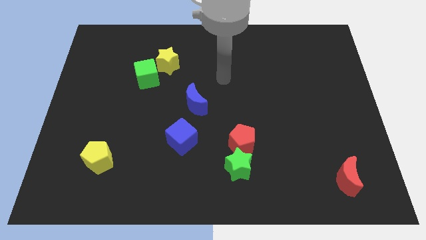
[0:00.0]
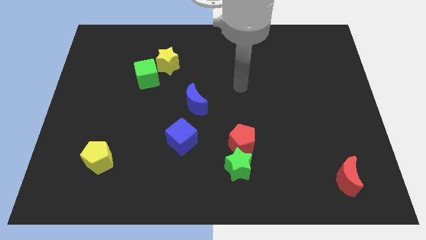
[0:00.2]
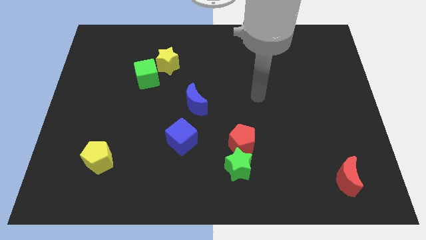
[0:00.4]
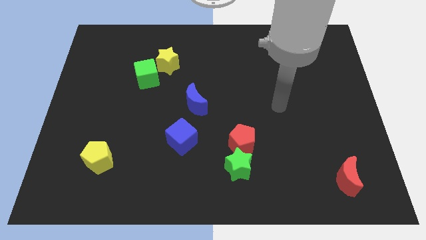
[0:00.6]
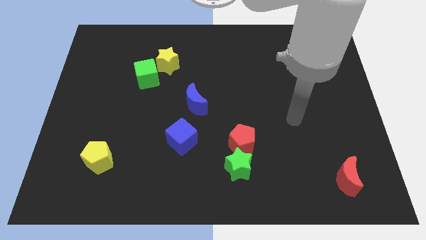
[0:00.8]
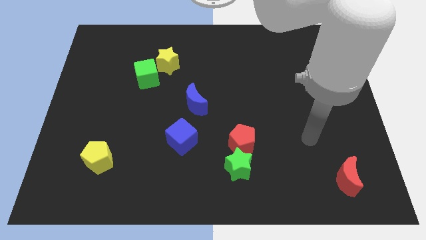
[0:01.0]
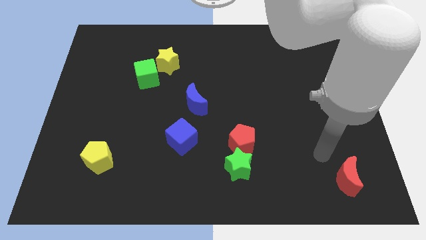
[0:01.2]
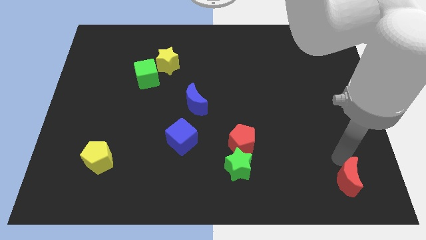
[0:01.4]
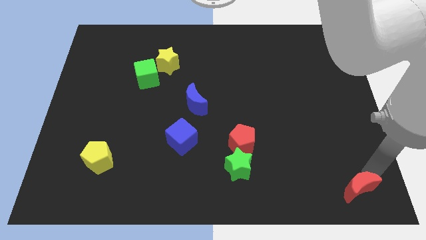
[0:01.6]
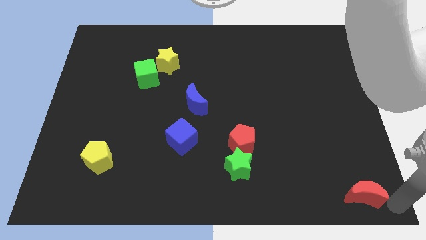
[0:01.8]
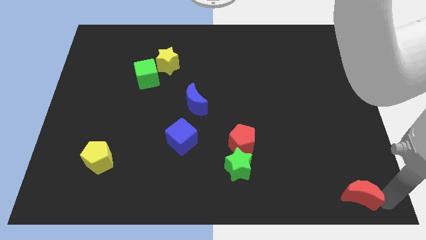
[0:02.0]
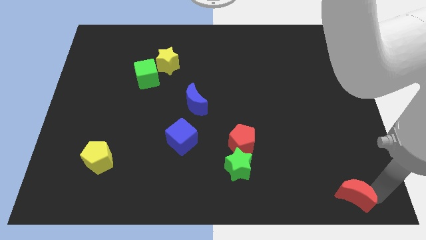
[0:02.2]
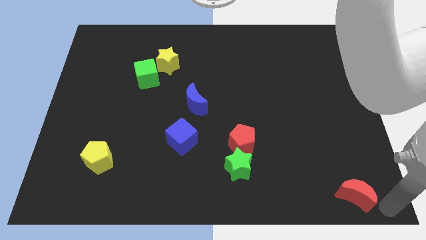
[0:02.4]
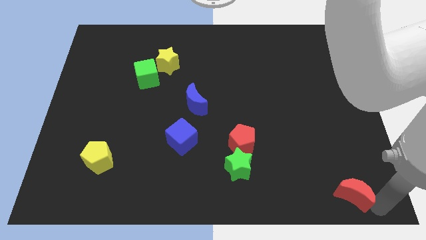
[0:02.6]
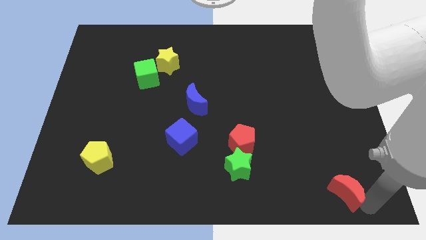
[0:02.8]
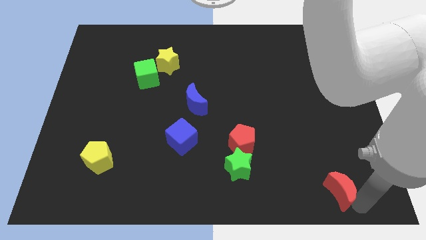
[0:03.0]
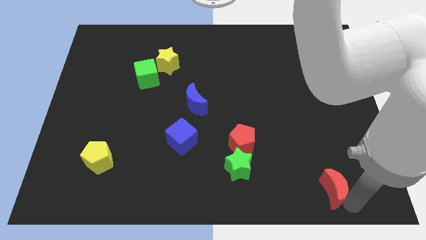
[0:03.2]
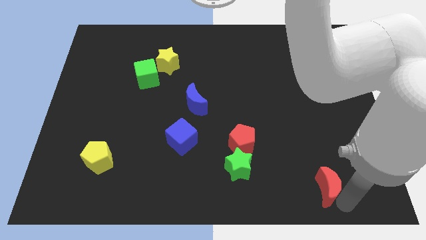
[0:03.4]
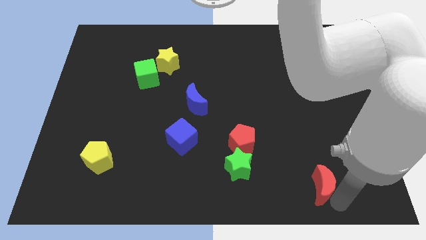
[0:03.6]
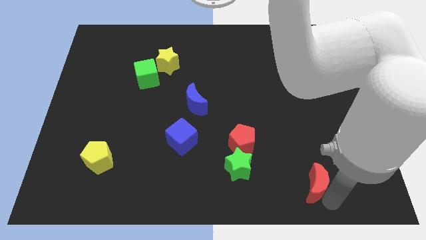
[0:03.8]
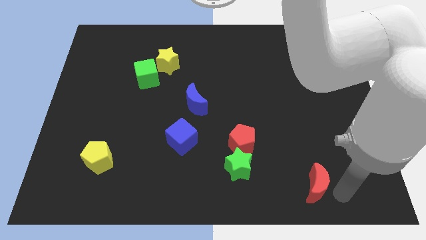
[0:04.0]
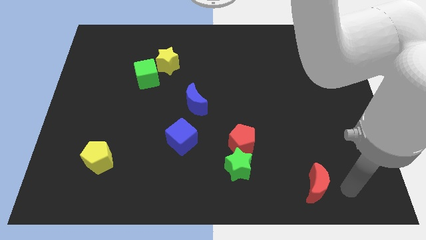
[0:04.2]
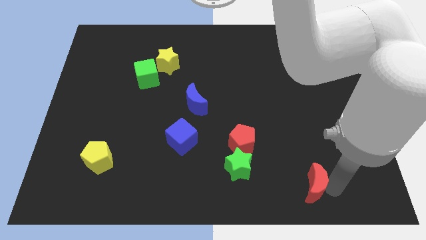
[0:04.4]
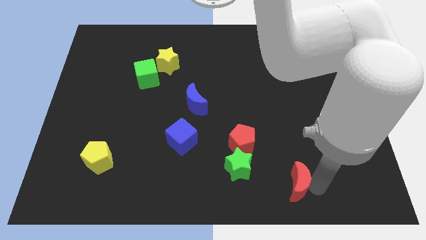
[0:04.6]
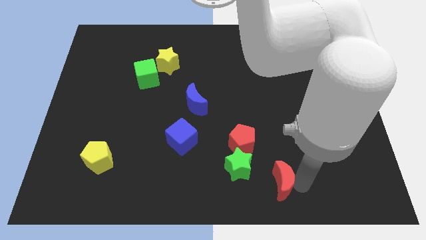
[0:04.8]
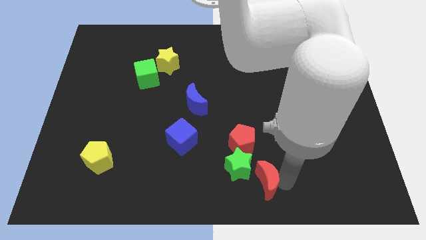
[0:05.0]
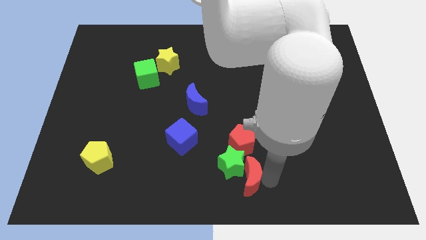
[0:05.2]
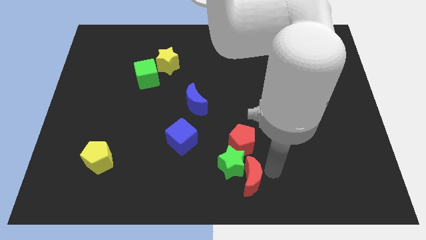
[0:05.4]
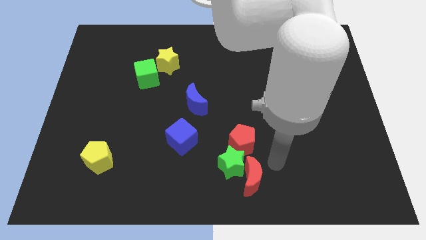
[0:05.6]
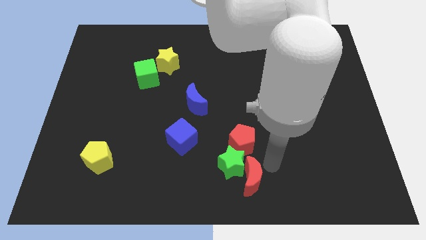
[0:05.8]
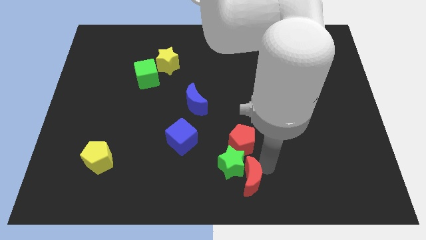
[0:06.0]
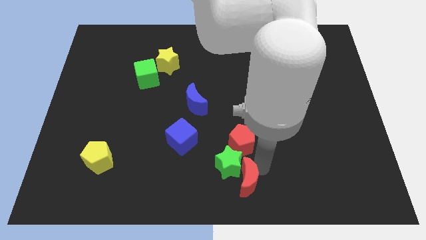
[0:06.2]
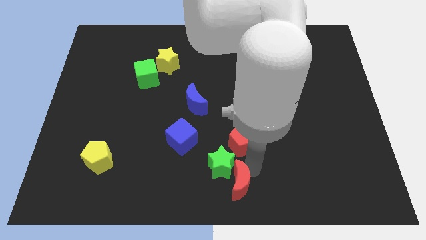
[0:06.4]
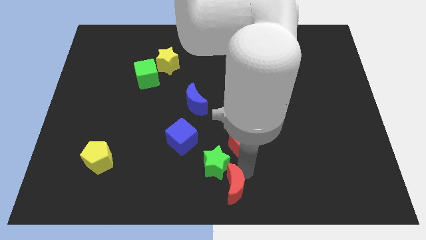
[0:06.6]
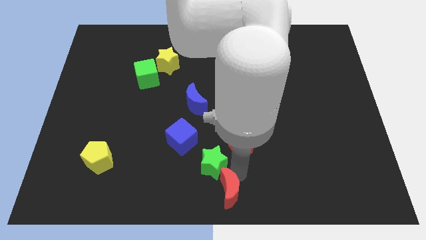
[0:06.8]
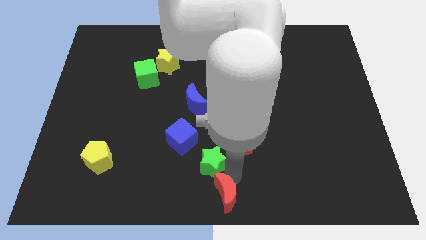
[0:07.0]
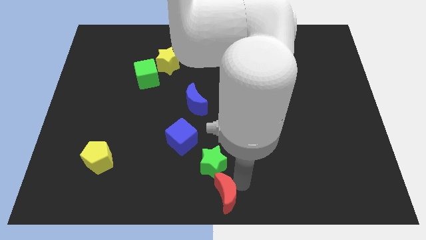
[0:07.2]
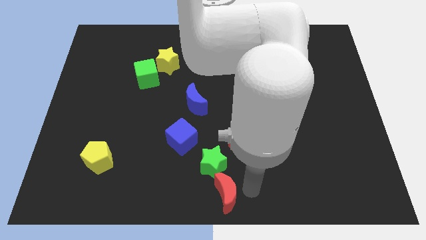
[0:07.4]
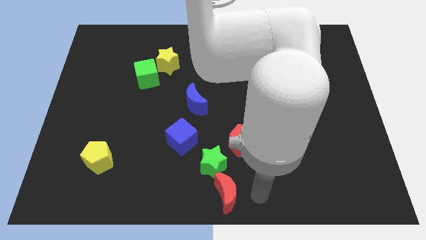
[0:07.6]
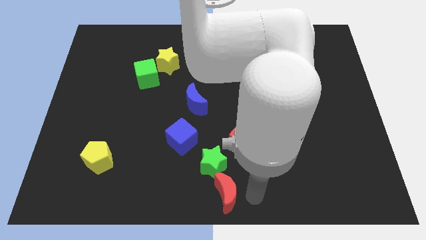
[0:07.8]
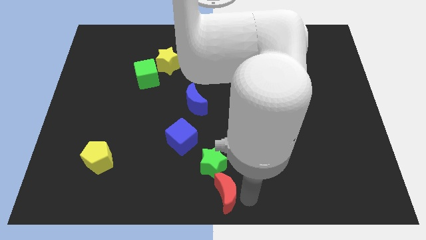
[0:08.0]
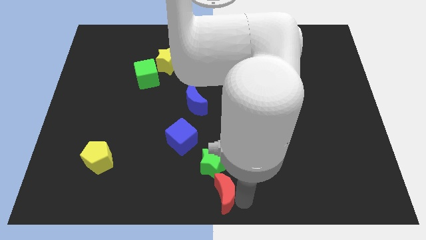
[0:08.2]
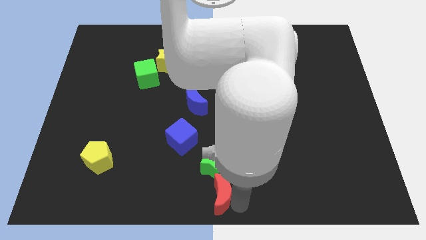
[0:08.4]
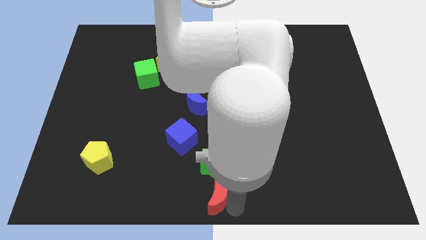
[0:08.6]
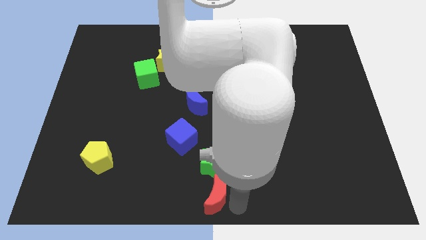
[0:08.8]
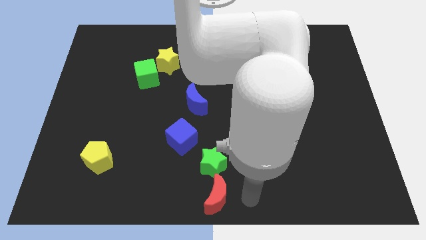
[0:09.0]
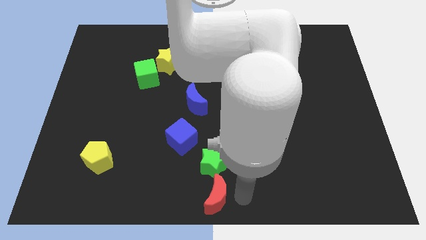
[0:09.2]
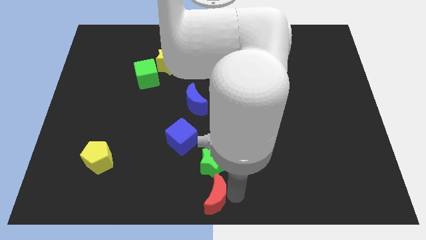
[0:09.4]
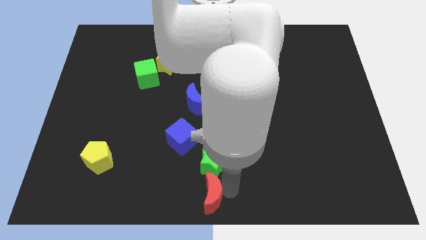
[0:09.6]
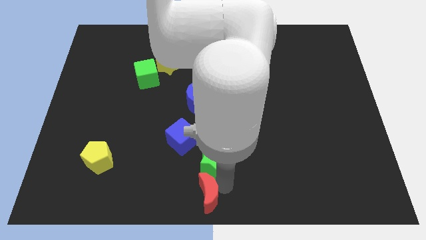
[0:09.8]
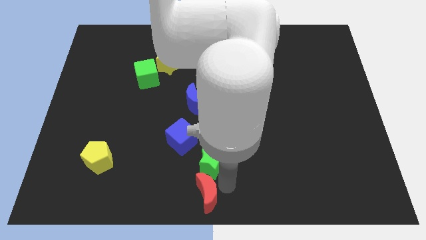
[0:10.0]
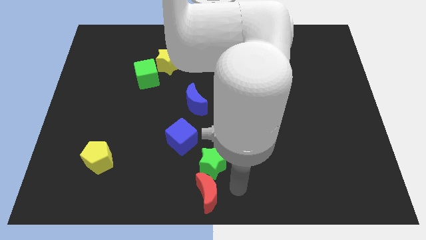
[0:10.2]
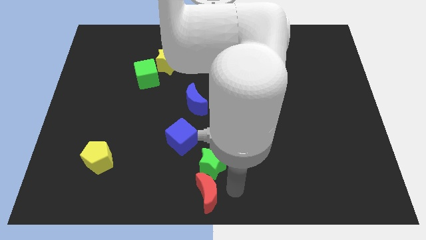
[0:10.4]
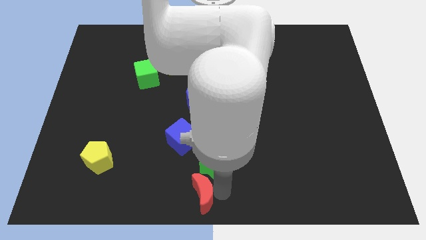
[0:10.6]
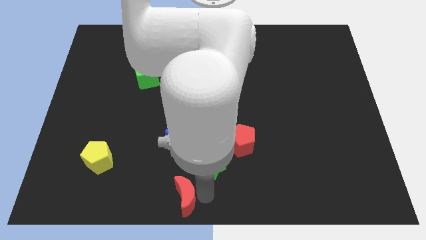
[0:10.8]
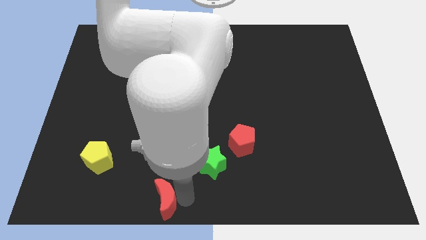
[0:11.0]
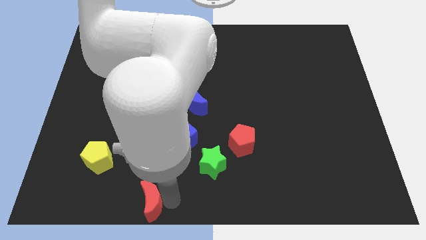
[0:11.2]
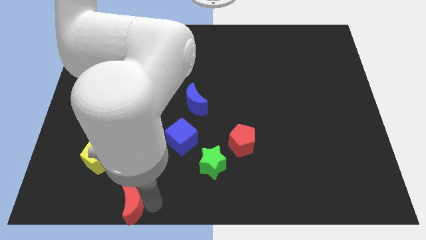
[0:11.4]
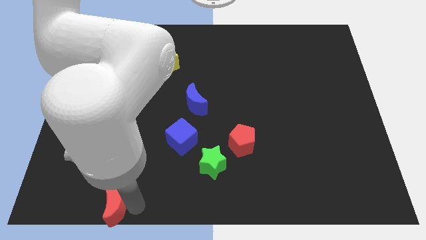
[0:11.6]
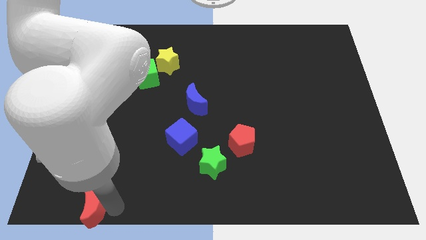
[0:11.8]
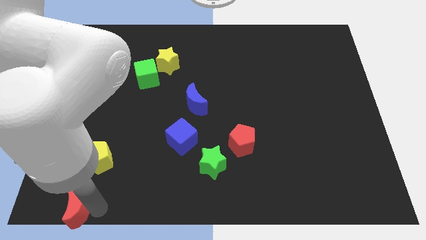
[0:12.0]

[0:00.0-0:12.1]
slide the red moon to the bottom left

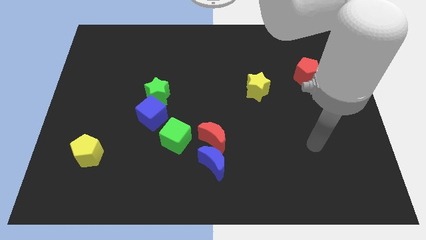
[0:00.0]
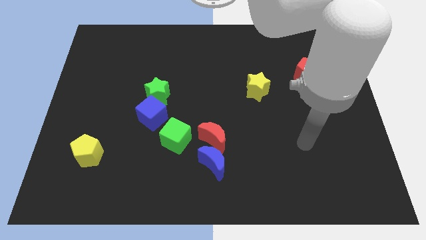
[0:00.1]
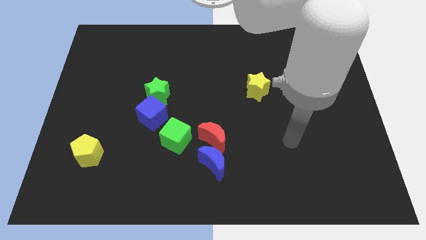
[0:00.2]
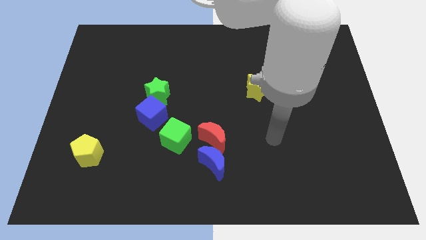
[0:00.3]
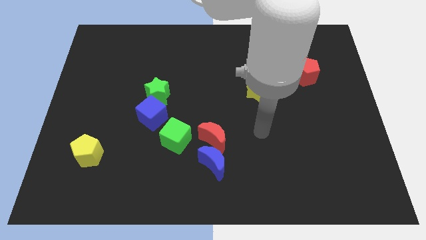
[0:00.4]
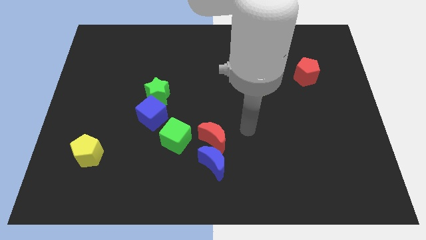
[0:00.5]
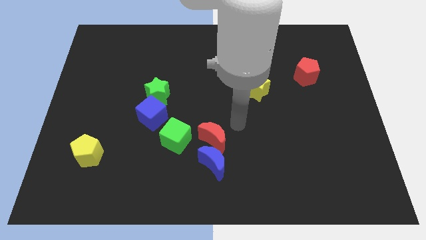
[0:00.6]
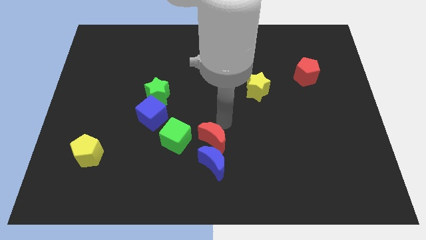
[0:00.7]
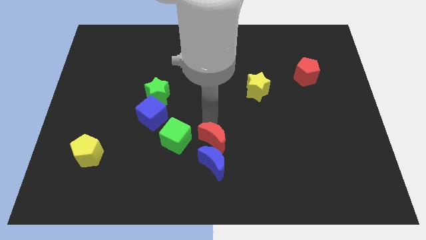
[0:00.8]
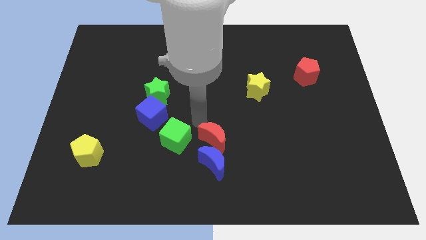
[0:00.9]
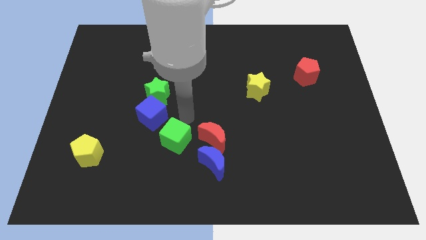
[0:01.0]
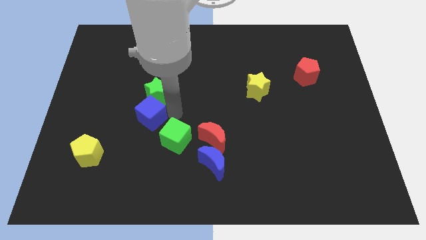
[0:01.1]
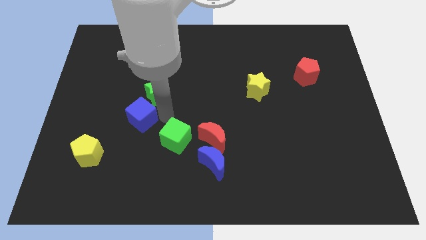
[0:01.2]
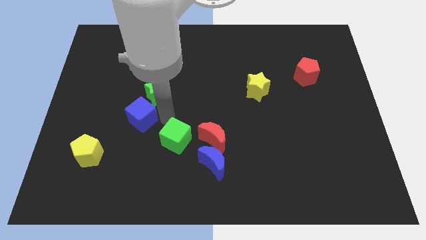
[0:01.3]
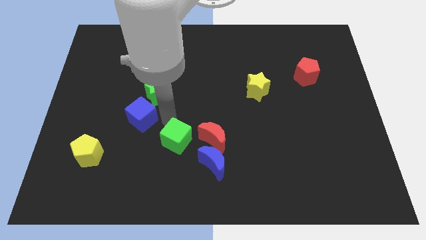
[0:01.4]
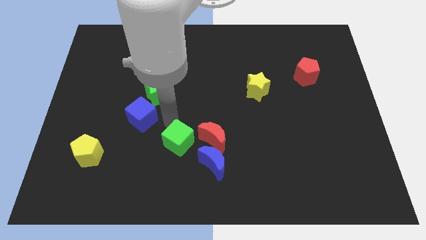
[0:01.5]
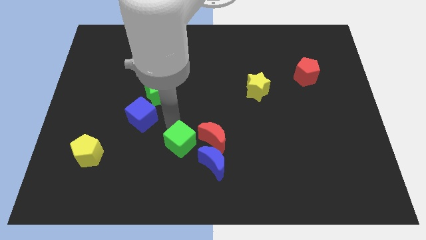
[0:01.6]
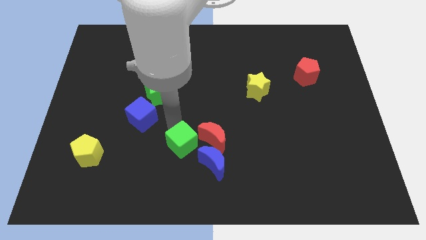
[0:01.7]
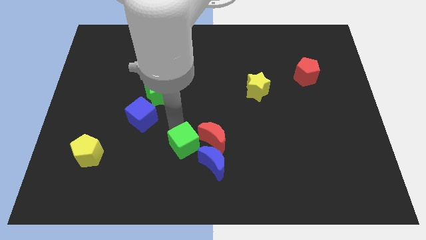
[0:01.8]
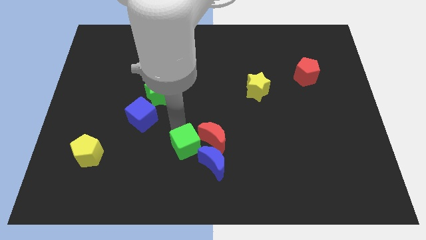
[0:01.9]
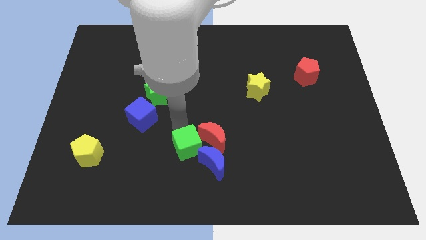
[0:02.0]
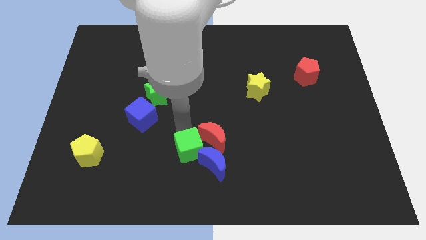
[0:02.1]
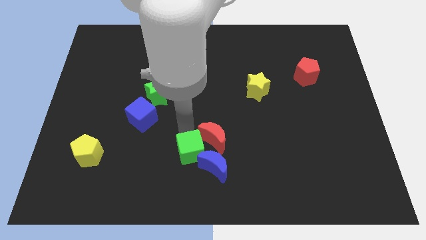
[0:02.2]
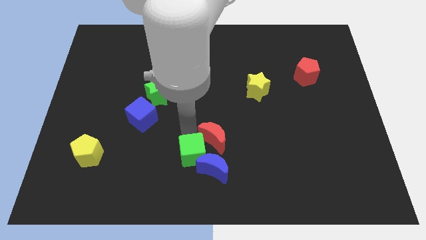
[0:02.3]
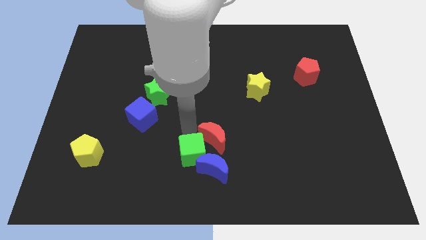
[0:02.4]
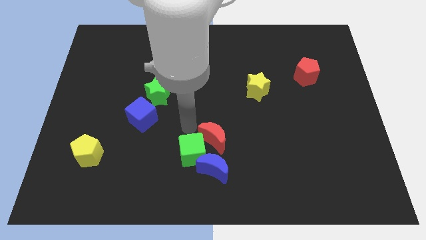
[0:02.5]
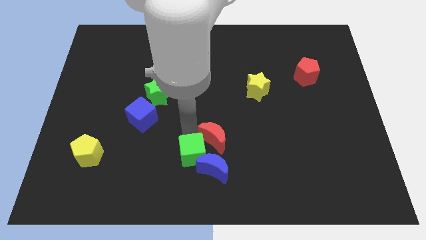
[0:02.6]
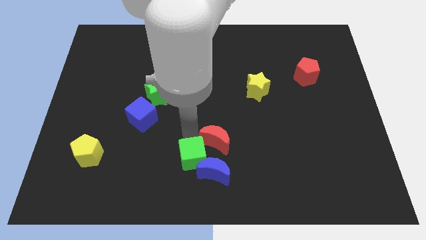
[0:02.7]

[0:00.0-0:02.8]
push the green cube to the bottom
